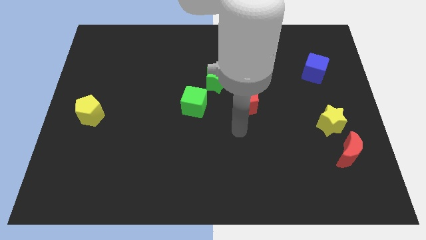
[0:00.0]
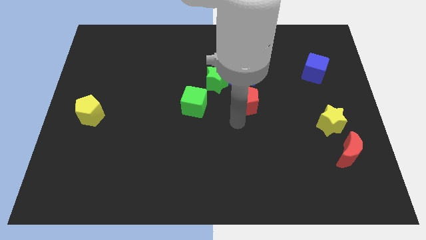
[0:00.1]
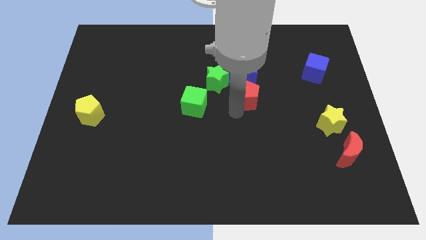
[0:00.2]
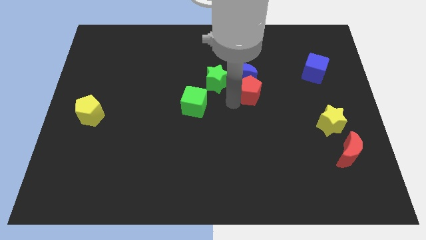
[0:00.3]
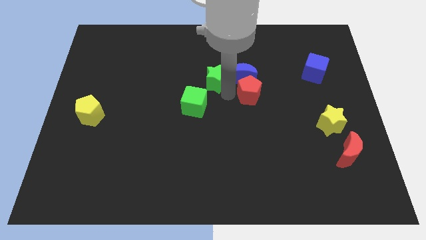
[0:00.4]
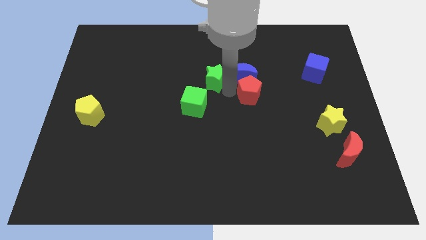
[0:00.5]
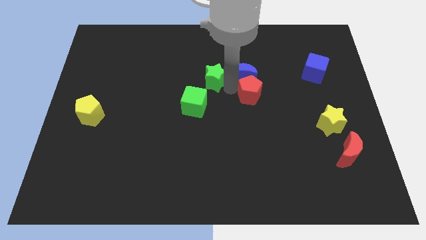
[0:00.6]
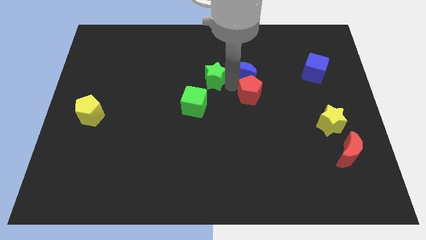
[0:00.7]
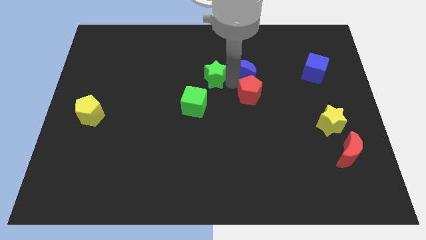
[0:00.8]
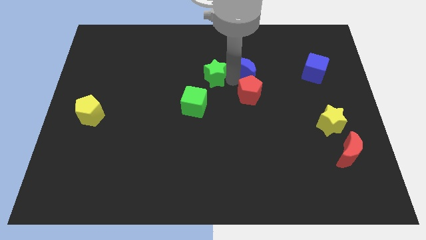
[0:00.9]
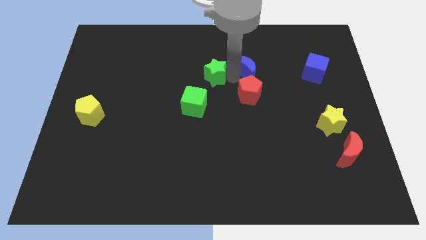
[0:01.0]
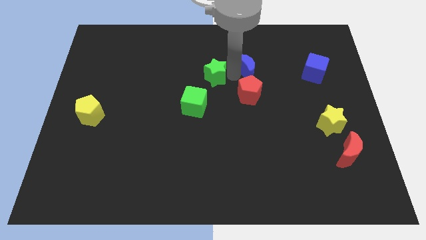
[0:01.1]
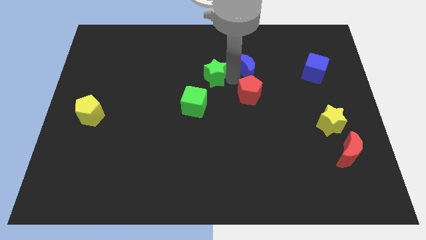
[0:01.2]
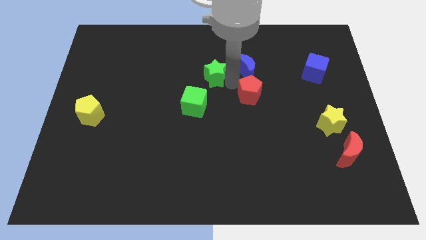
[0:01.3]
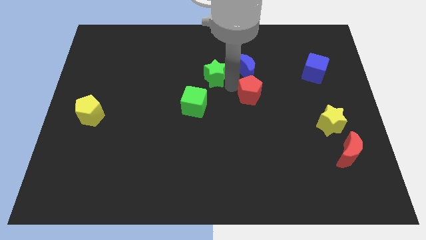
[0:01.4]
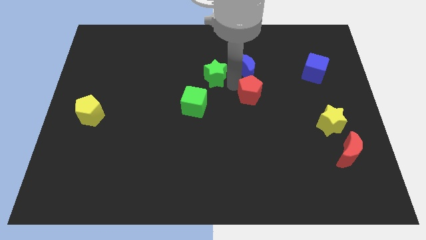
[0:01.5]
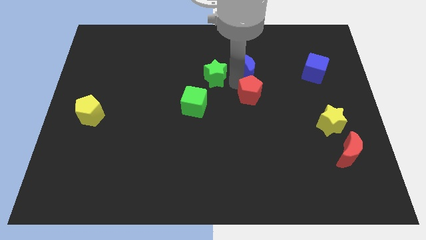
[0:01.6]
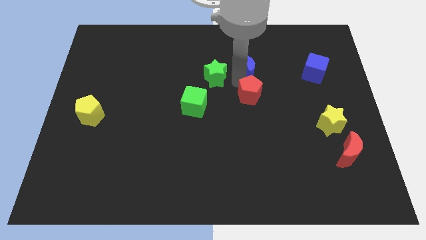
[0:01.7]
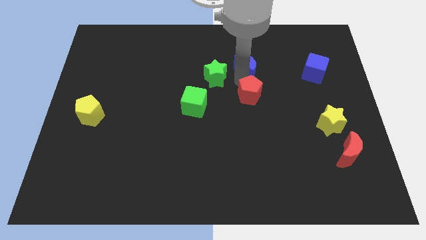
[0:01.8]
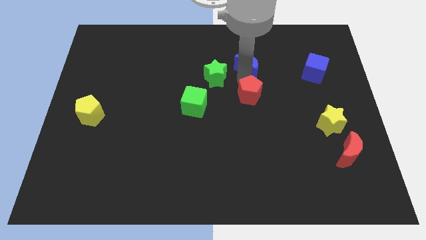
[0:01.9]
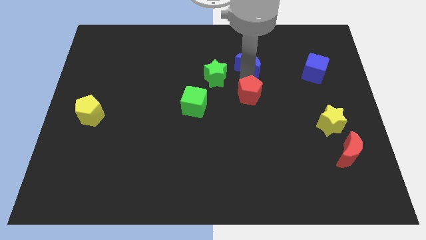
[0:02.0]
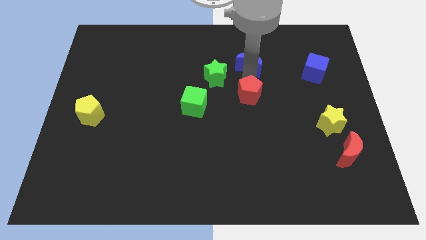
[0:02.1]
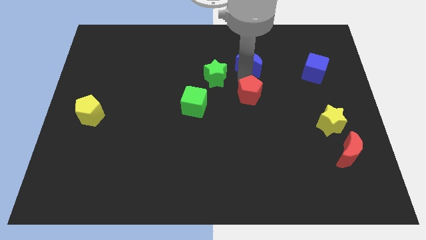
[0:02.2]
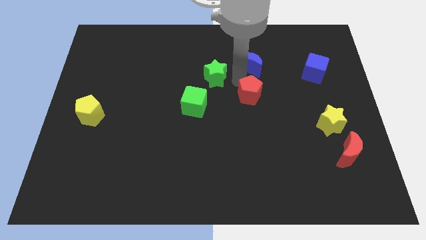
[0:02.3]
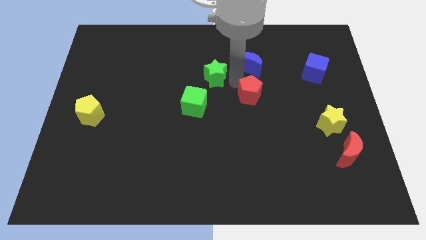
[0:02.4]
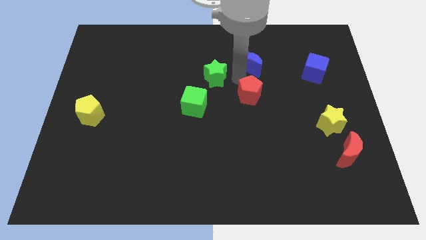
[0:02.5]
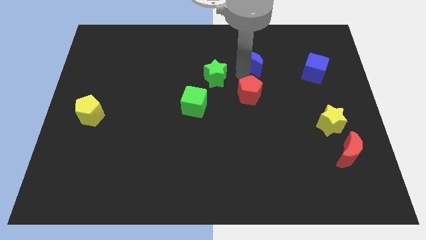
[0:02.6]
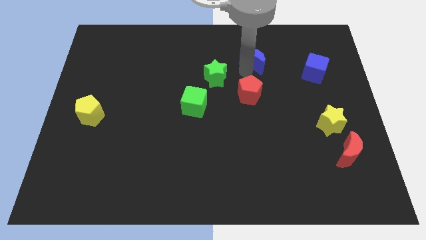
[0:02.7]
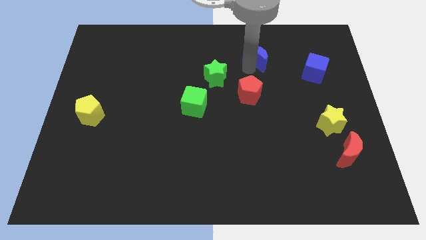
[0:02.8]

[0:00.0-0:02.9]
move the blue moon away from the green star and red pentagon

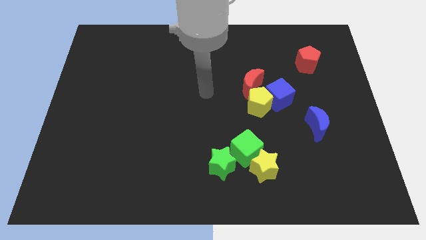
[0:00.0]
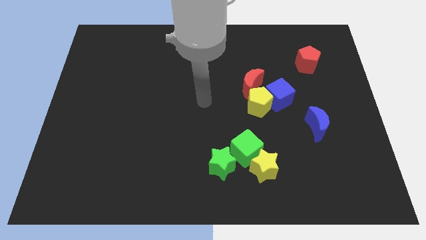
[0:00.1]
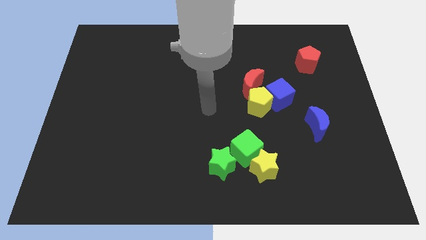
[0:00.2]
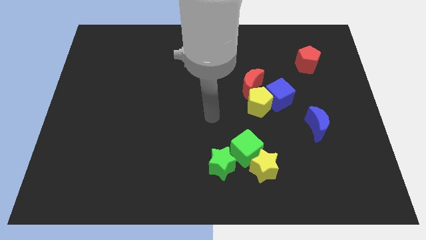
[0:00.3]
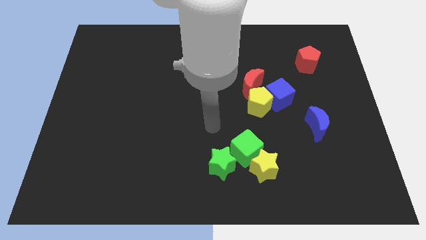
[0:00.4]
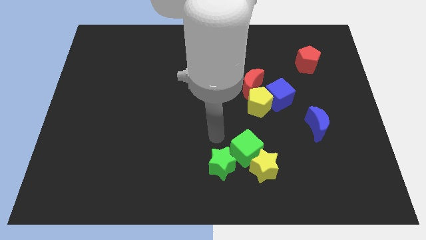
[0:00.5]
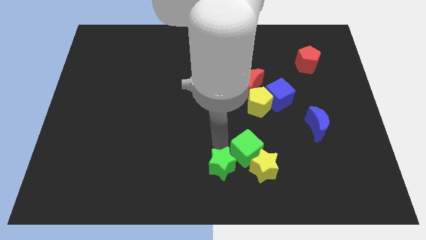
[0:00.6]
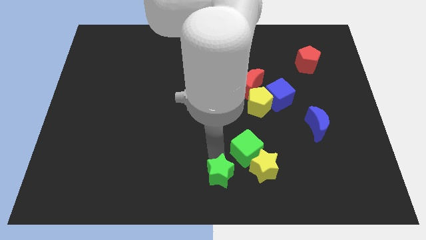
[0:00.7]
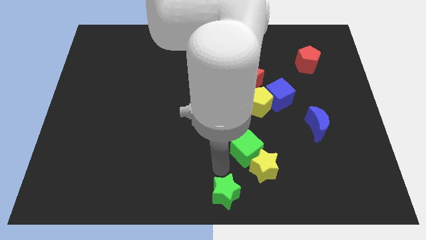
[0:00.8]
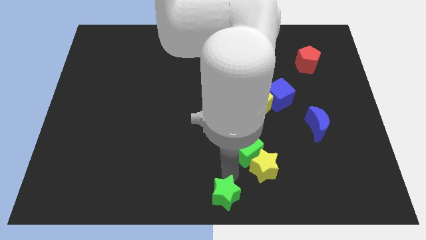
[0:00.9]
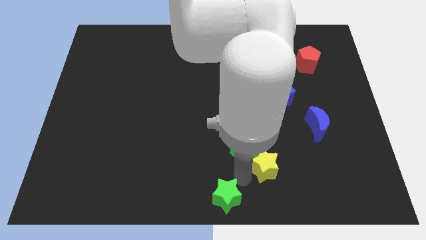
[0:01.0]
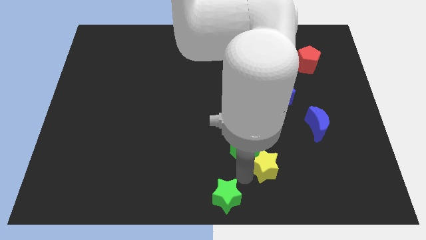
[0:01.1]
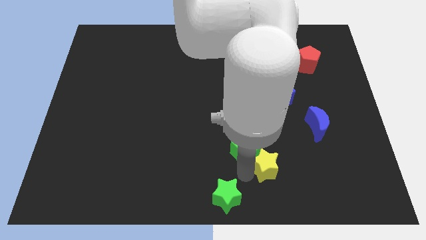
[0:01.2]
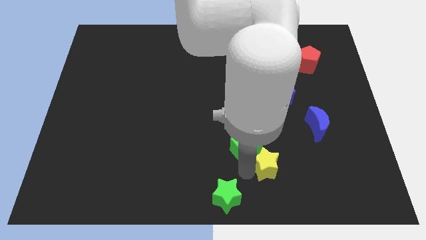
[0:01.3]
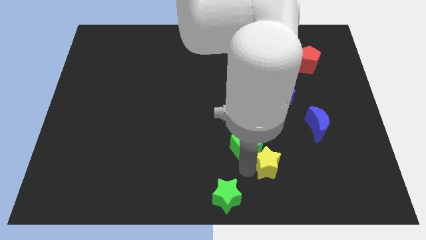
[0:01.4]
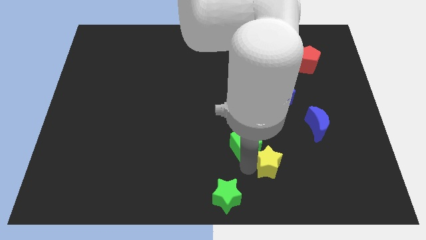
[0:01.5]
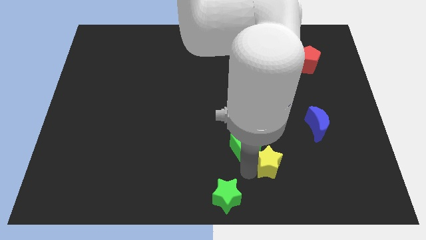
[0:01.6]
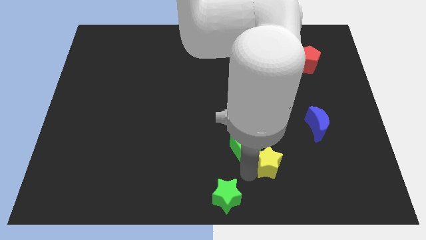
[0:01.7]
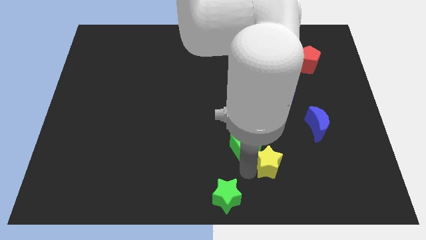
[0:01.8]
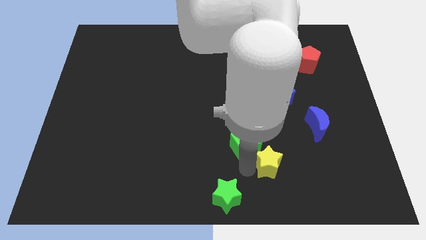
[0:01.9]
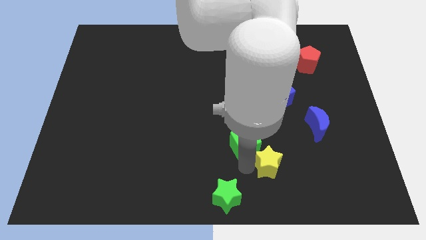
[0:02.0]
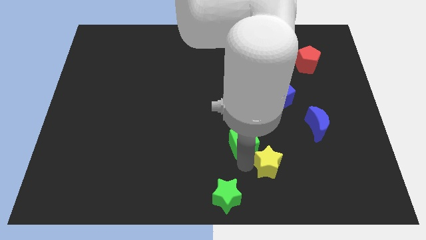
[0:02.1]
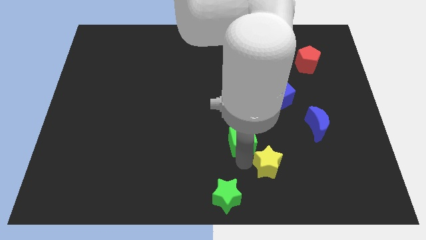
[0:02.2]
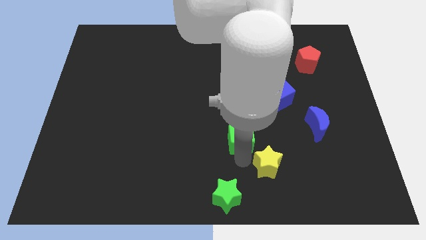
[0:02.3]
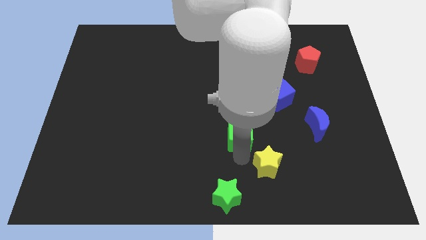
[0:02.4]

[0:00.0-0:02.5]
move the green cube away from the yellow star and green star

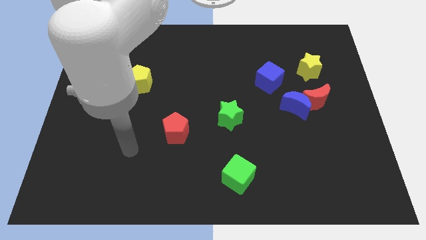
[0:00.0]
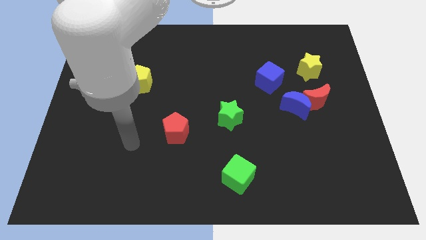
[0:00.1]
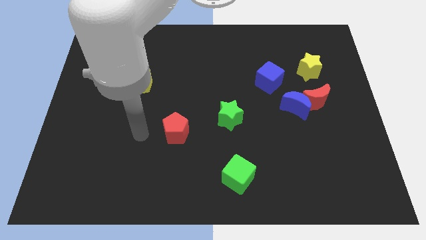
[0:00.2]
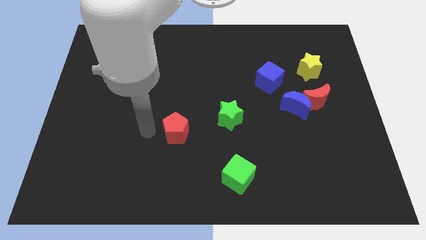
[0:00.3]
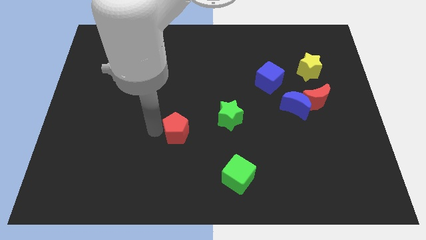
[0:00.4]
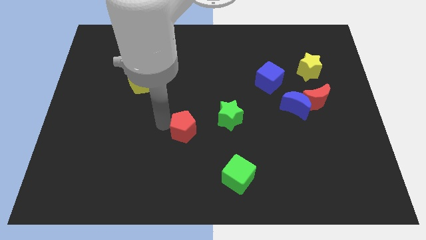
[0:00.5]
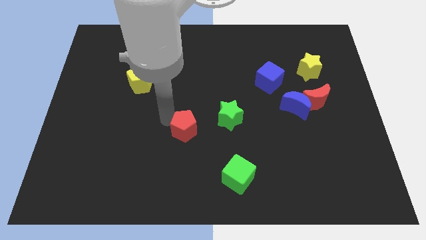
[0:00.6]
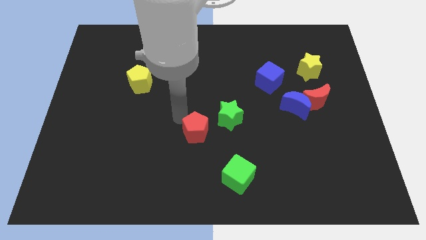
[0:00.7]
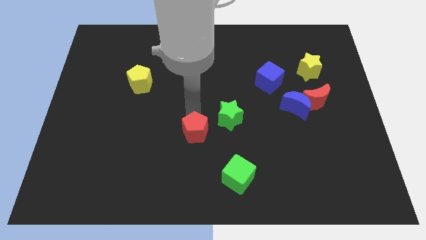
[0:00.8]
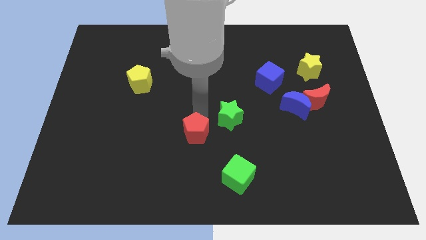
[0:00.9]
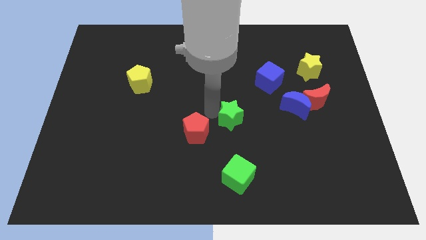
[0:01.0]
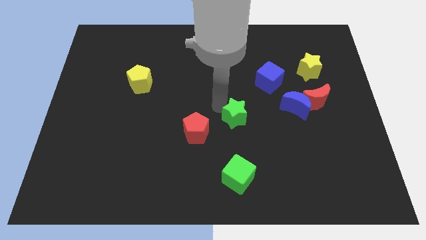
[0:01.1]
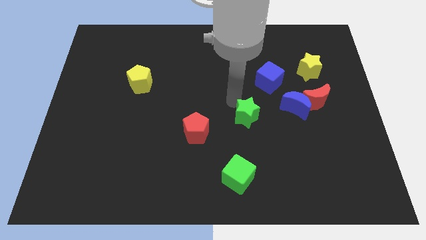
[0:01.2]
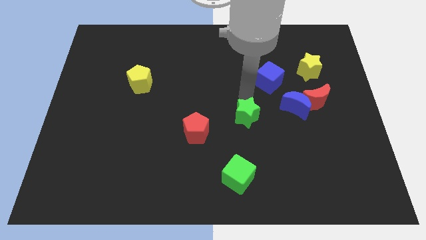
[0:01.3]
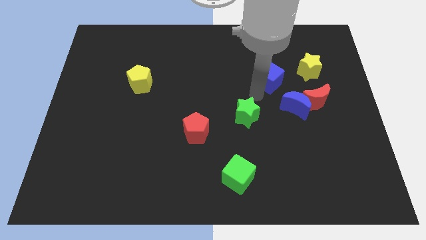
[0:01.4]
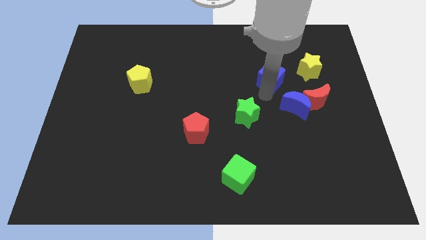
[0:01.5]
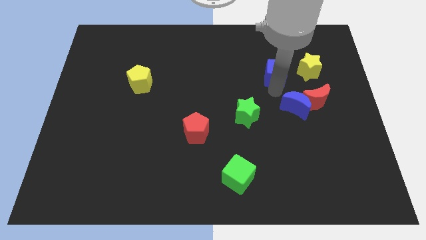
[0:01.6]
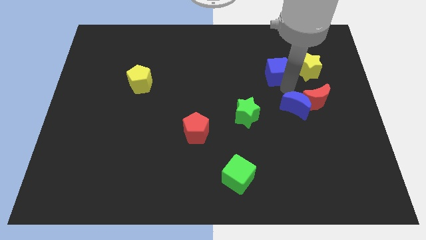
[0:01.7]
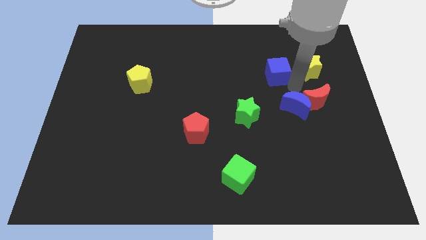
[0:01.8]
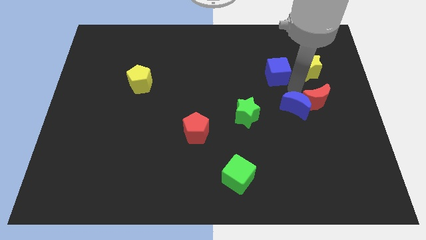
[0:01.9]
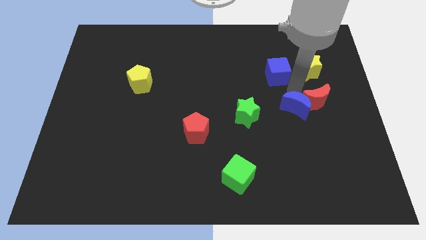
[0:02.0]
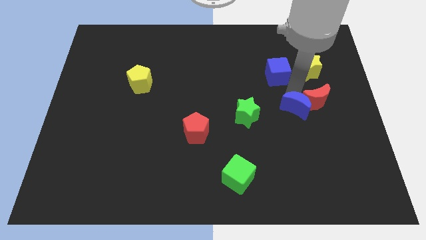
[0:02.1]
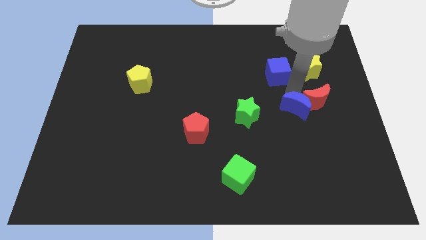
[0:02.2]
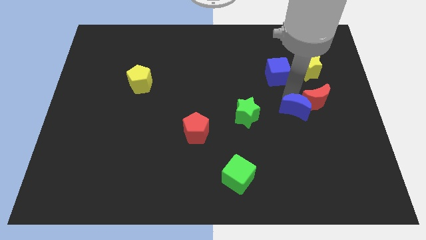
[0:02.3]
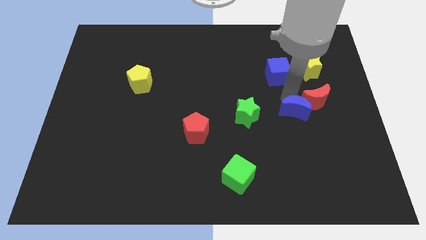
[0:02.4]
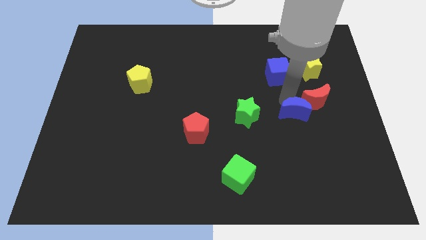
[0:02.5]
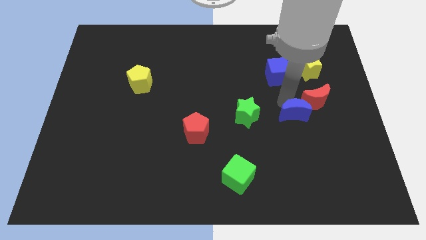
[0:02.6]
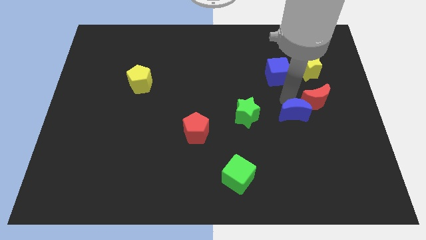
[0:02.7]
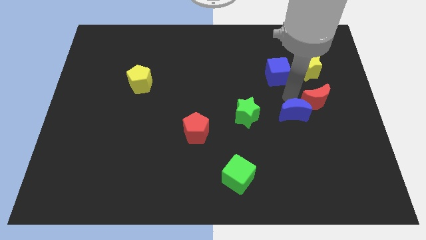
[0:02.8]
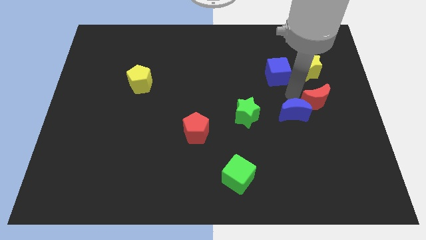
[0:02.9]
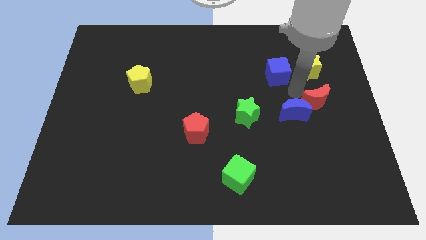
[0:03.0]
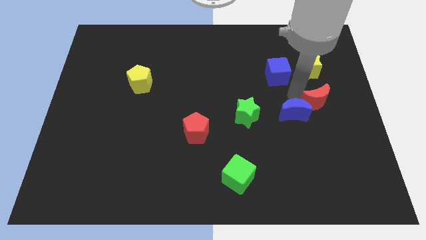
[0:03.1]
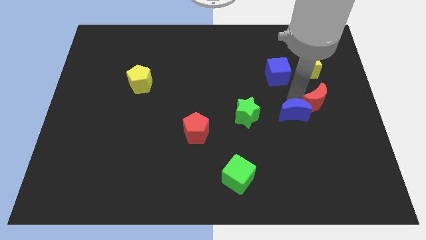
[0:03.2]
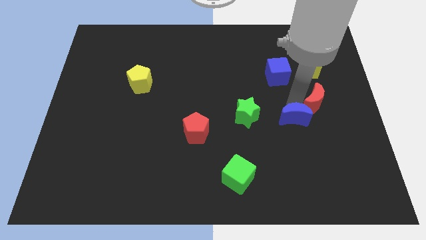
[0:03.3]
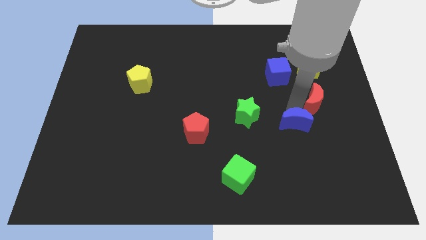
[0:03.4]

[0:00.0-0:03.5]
move the blue moon away from the red moon and blue cube

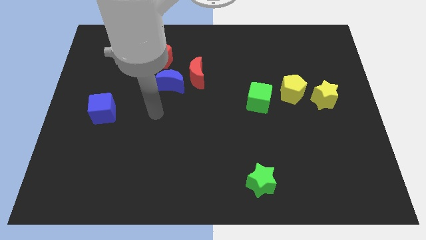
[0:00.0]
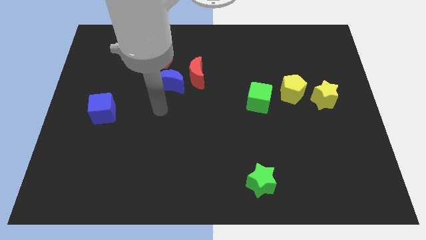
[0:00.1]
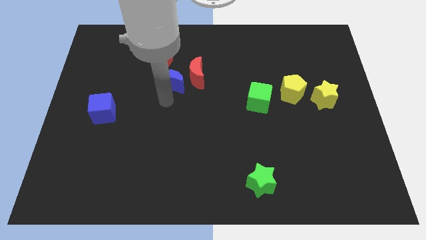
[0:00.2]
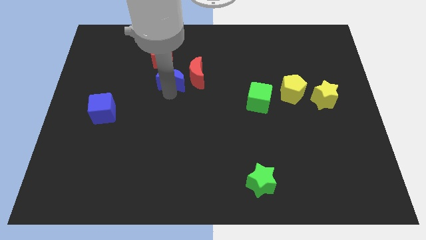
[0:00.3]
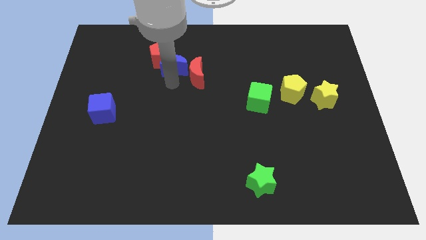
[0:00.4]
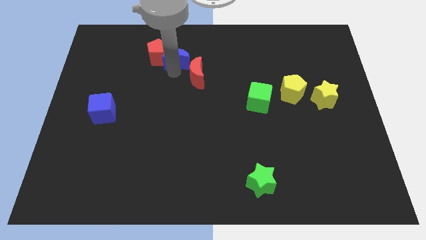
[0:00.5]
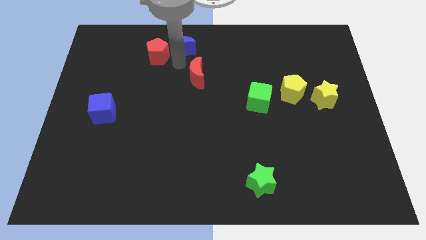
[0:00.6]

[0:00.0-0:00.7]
pull the red moon apart from the blue moon
